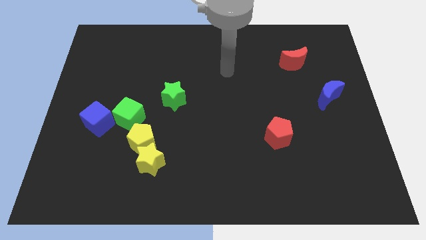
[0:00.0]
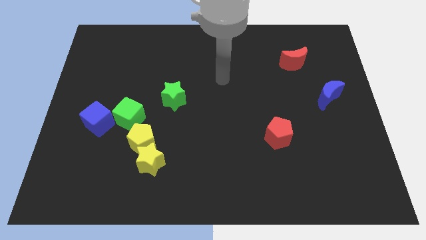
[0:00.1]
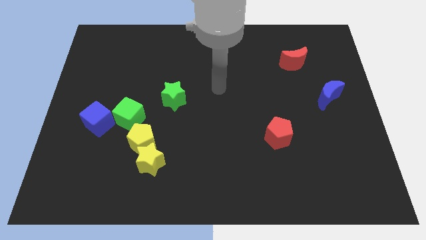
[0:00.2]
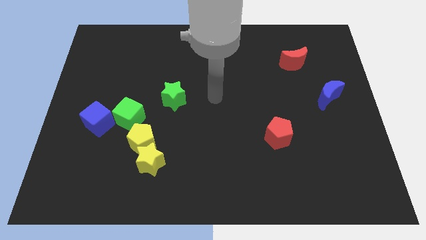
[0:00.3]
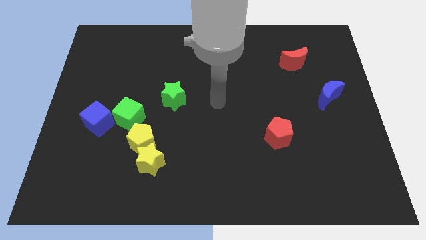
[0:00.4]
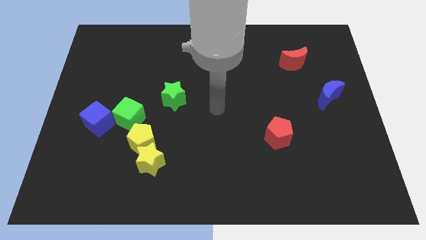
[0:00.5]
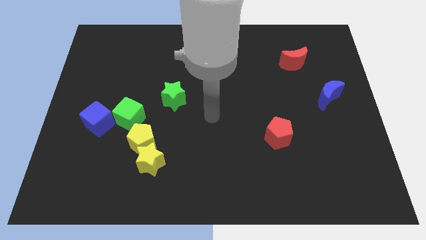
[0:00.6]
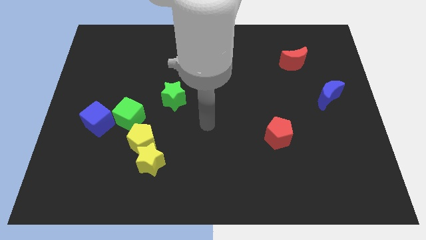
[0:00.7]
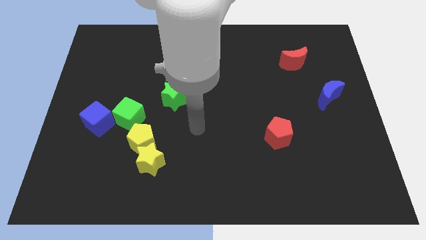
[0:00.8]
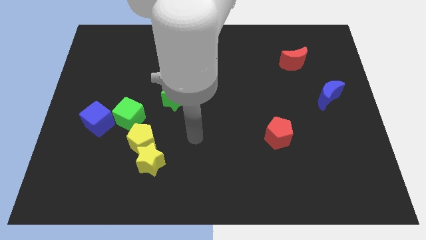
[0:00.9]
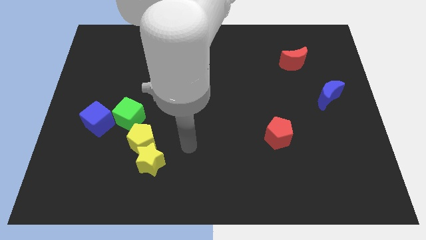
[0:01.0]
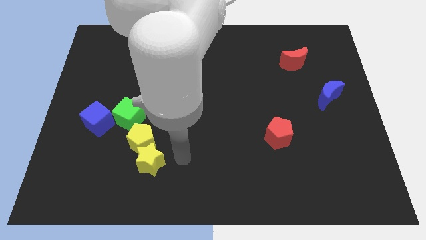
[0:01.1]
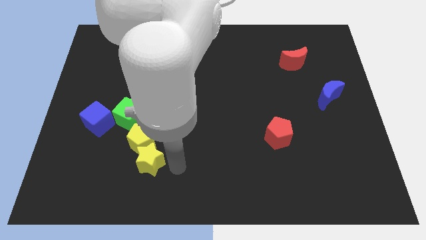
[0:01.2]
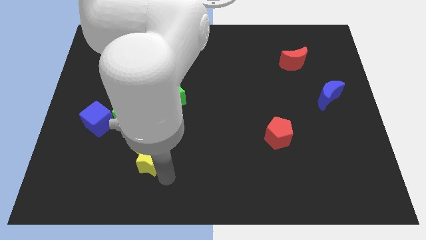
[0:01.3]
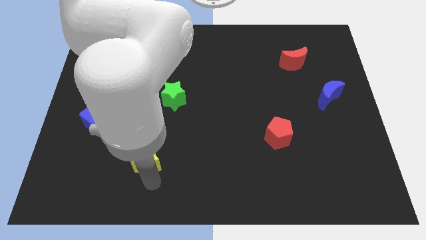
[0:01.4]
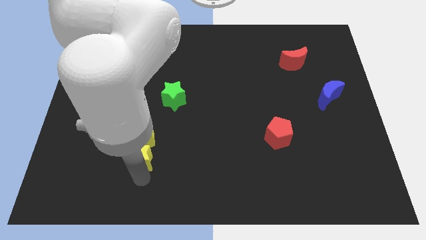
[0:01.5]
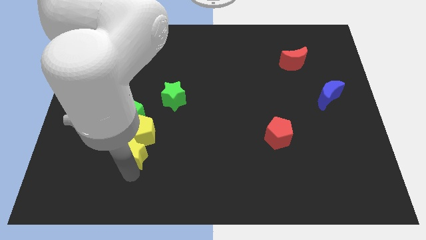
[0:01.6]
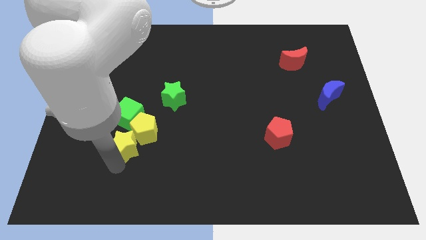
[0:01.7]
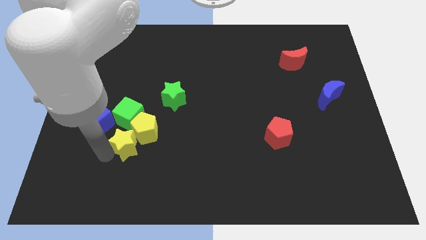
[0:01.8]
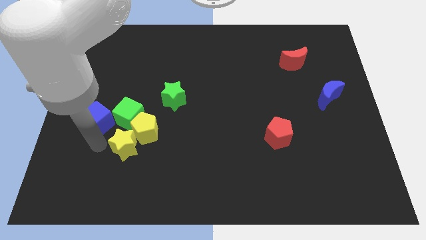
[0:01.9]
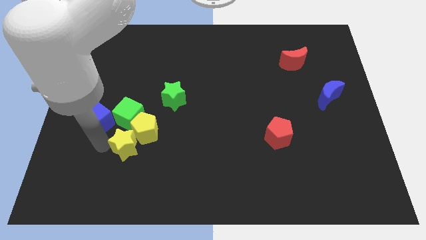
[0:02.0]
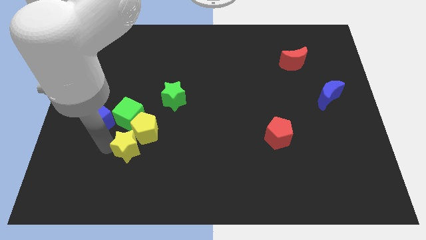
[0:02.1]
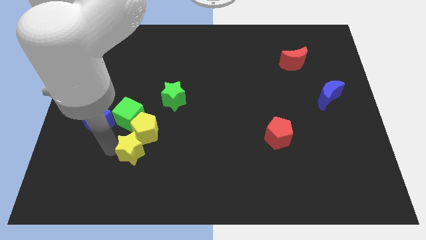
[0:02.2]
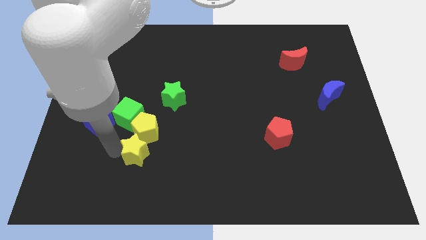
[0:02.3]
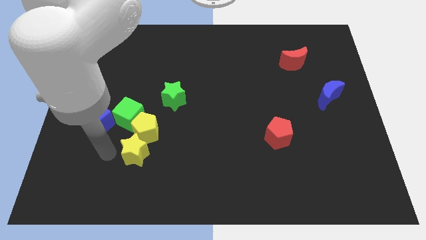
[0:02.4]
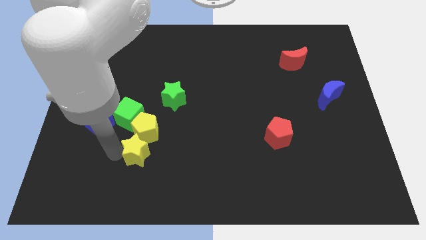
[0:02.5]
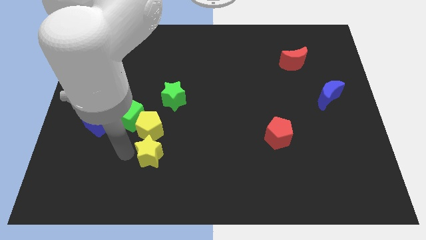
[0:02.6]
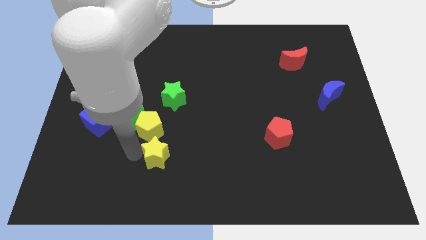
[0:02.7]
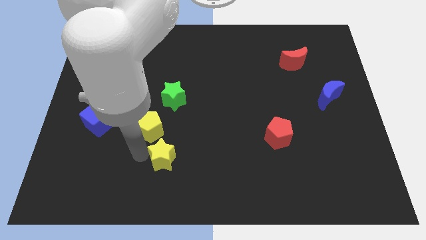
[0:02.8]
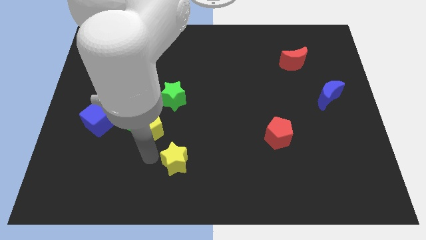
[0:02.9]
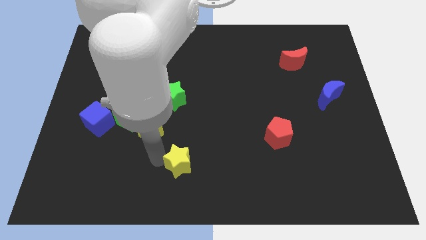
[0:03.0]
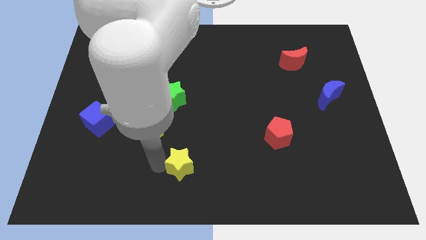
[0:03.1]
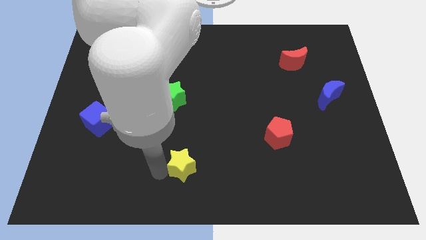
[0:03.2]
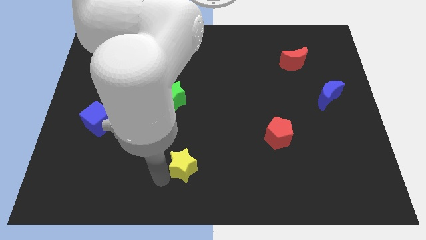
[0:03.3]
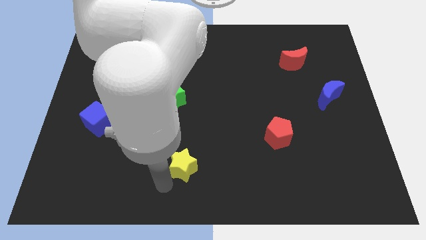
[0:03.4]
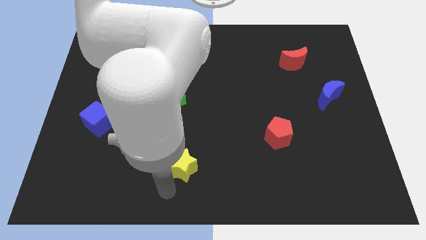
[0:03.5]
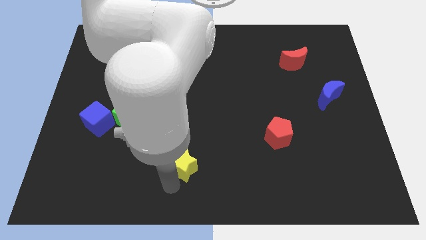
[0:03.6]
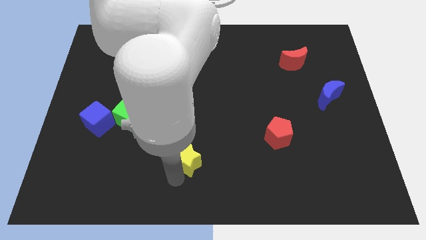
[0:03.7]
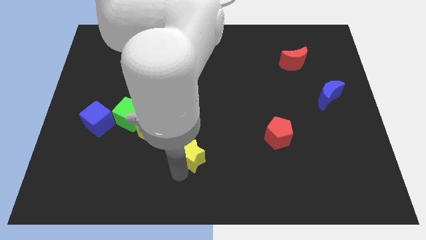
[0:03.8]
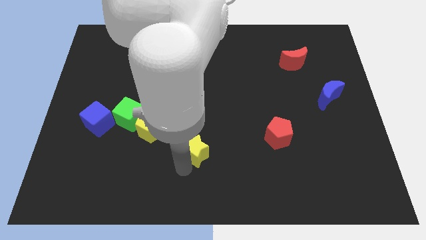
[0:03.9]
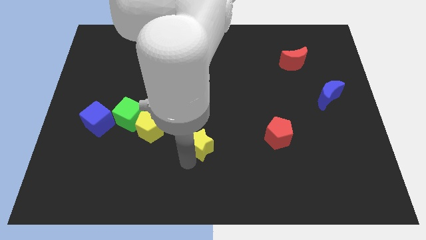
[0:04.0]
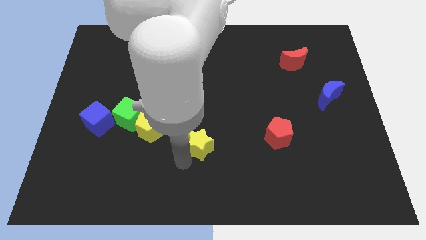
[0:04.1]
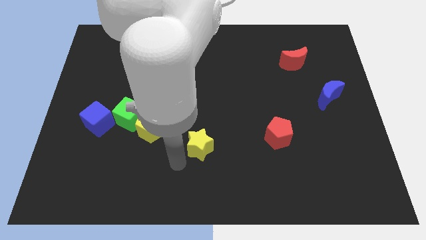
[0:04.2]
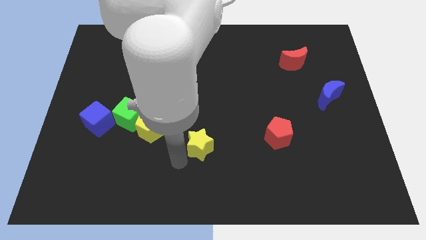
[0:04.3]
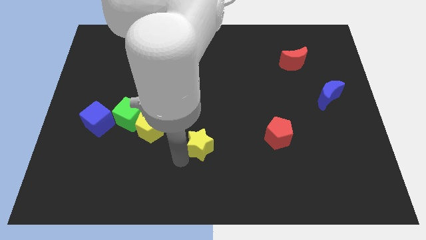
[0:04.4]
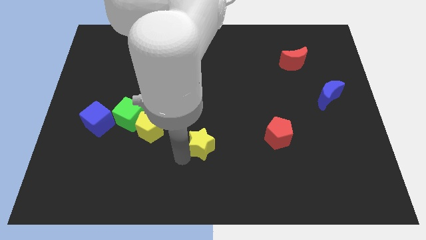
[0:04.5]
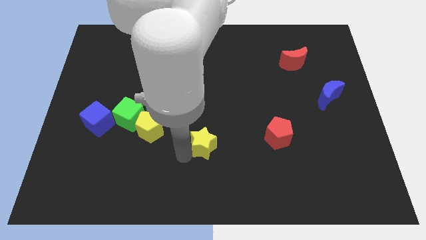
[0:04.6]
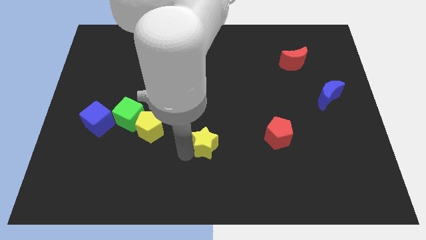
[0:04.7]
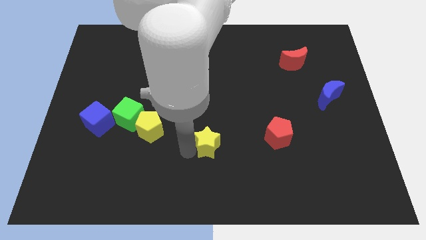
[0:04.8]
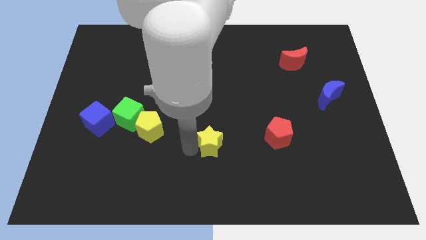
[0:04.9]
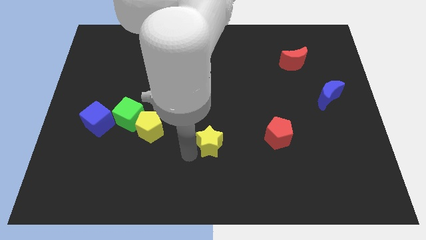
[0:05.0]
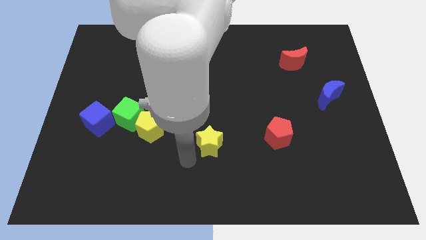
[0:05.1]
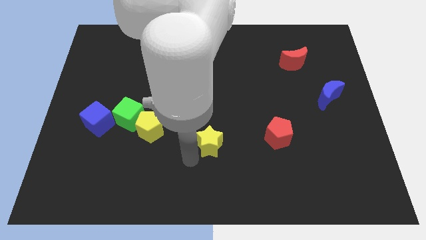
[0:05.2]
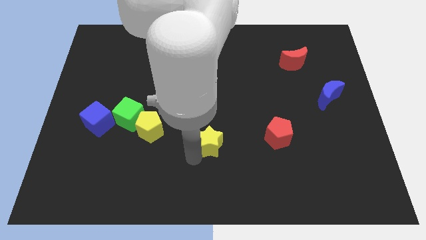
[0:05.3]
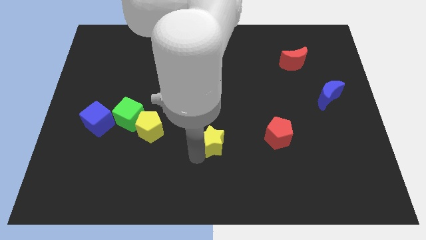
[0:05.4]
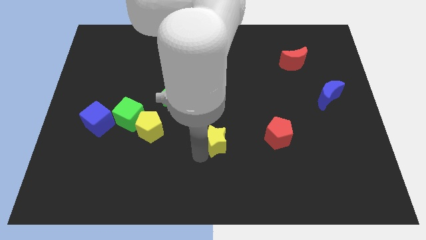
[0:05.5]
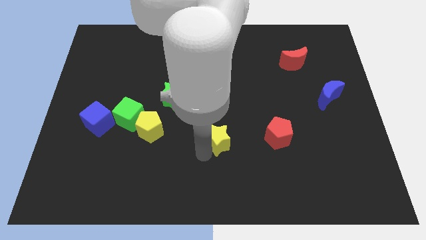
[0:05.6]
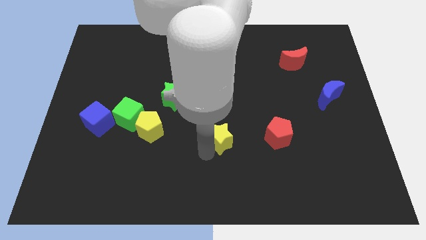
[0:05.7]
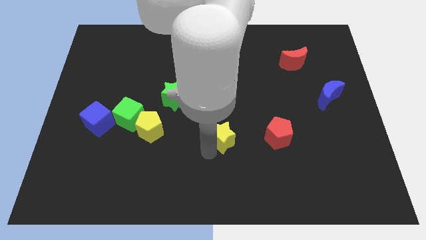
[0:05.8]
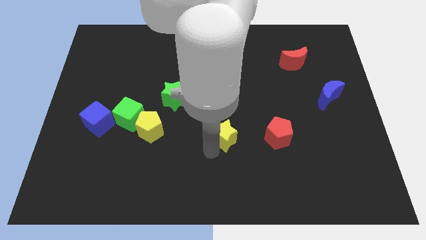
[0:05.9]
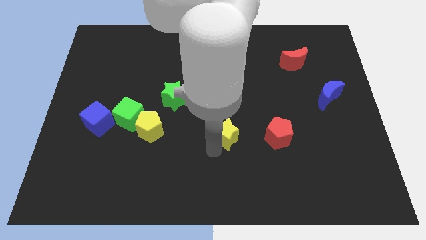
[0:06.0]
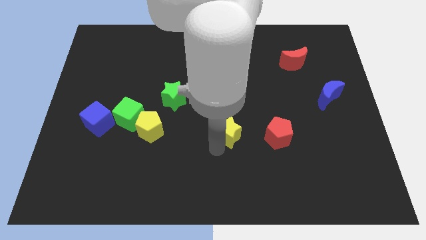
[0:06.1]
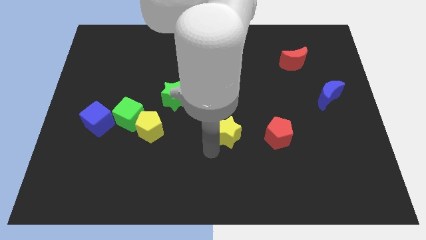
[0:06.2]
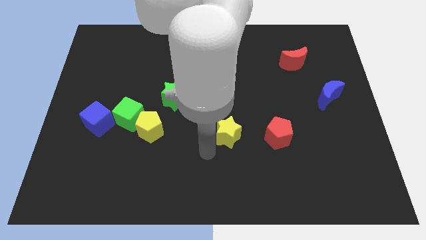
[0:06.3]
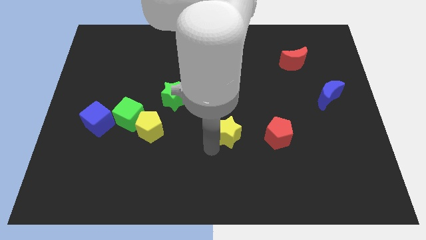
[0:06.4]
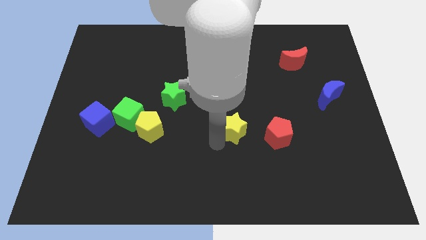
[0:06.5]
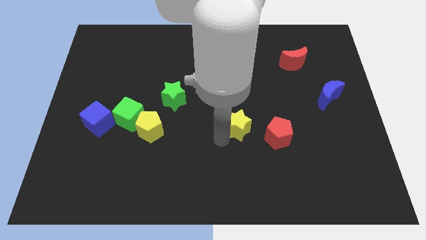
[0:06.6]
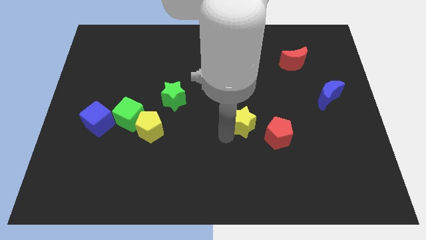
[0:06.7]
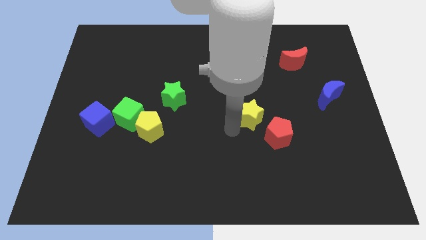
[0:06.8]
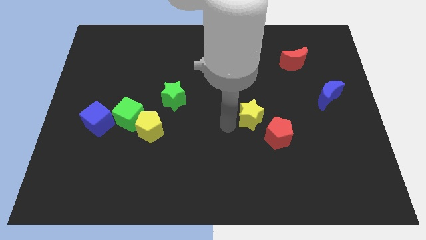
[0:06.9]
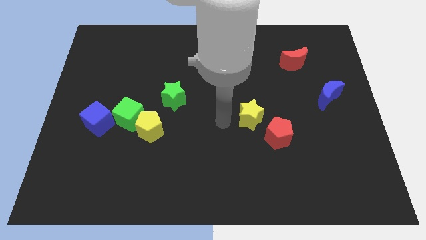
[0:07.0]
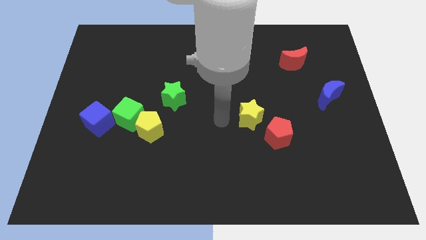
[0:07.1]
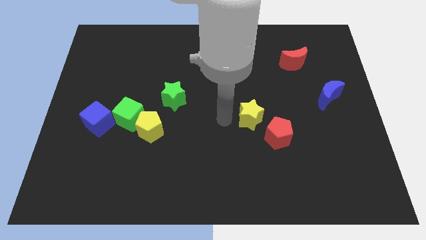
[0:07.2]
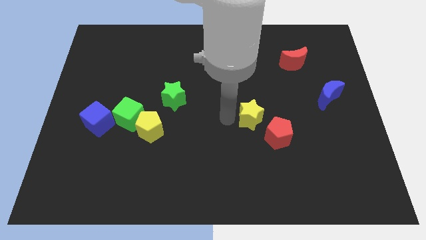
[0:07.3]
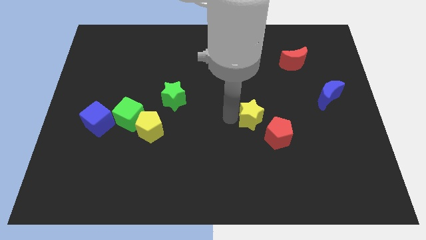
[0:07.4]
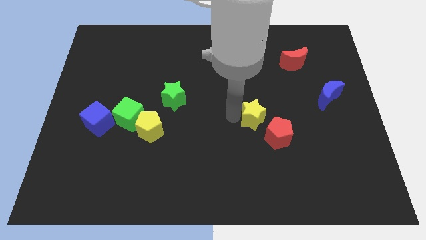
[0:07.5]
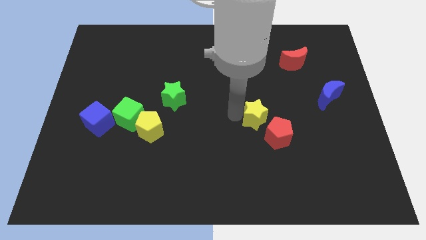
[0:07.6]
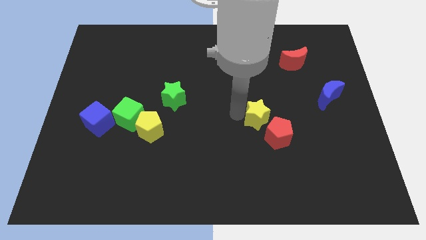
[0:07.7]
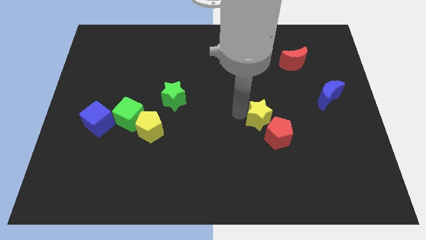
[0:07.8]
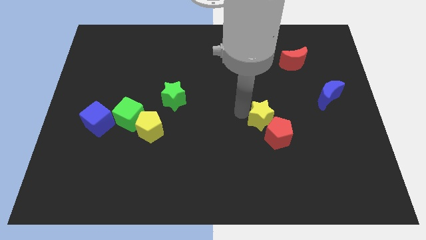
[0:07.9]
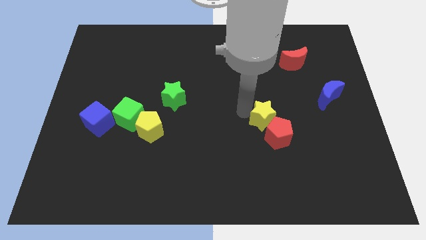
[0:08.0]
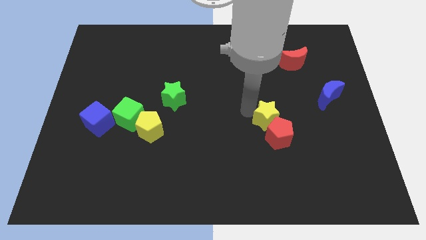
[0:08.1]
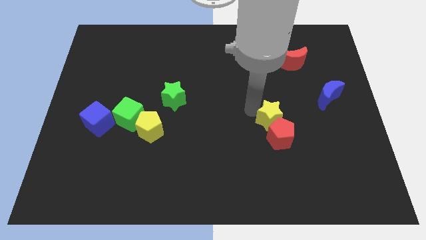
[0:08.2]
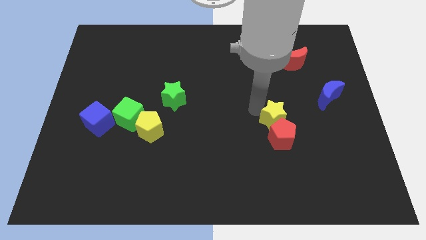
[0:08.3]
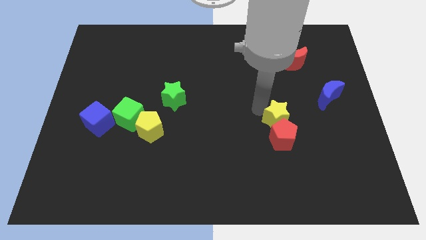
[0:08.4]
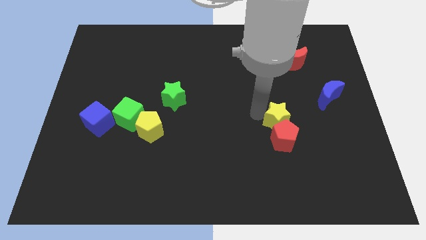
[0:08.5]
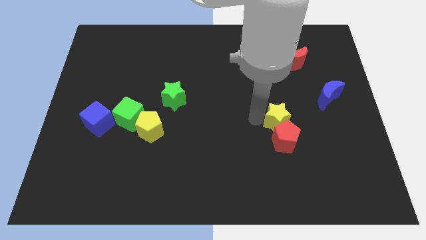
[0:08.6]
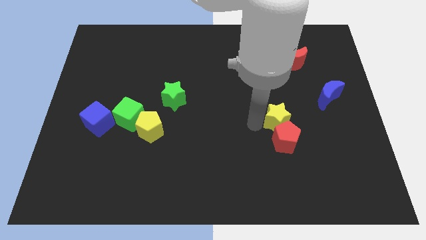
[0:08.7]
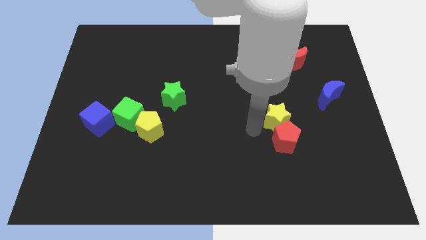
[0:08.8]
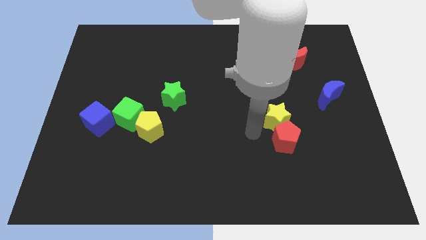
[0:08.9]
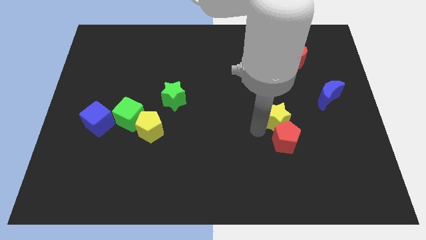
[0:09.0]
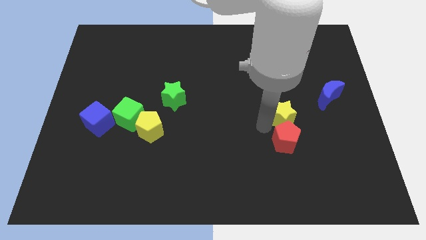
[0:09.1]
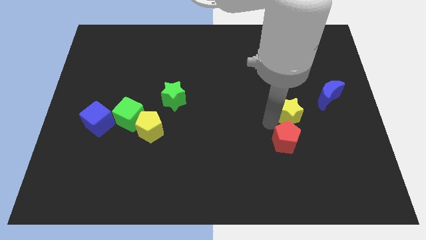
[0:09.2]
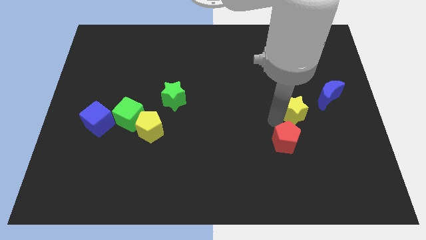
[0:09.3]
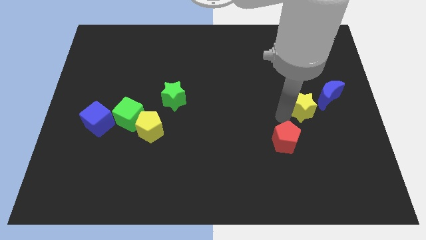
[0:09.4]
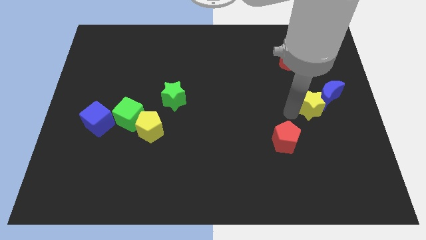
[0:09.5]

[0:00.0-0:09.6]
slide the yellow star next to the blue moon
